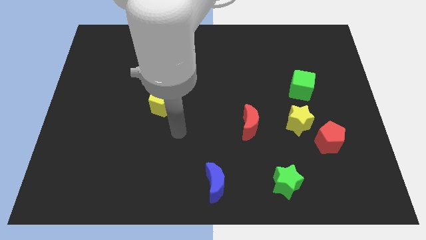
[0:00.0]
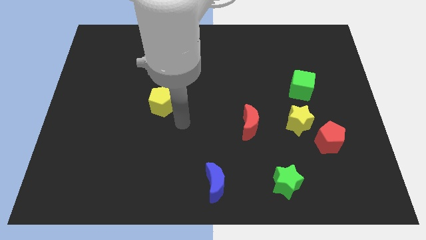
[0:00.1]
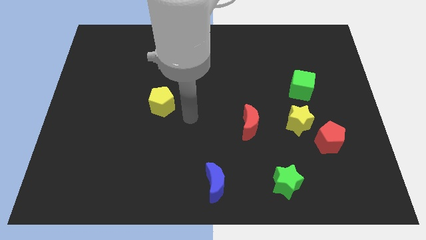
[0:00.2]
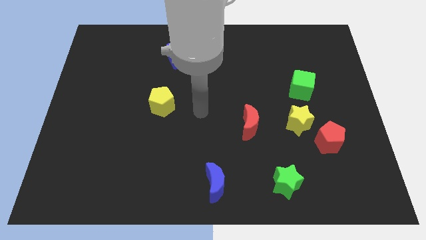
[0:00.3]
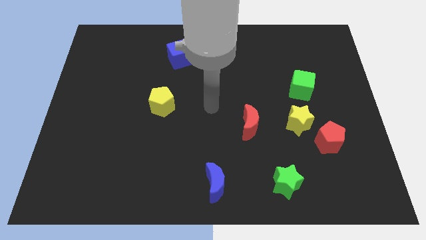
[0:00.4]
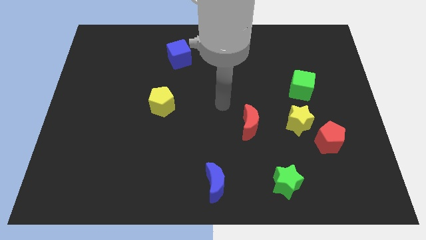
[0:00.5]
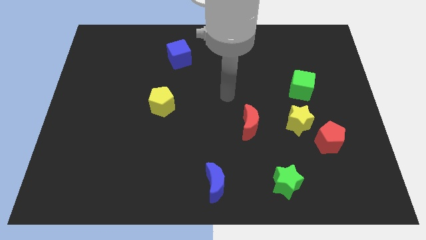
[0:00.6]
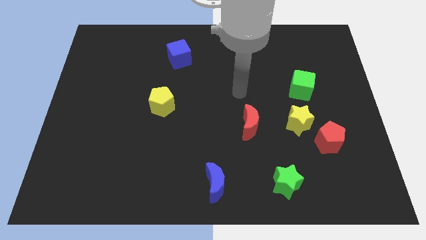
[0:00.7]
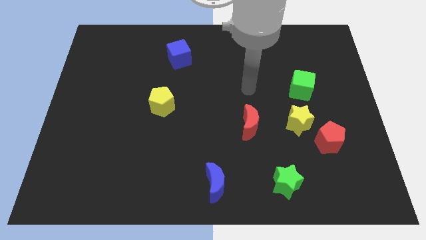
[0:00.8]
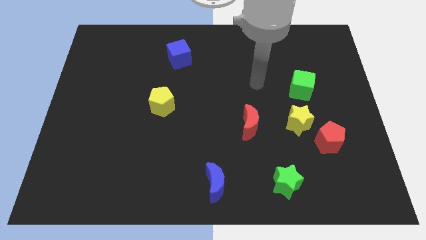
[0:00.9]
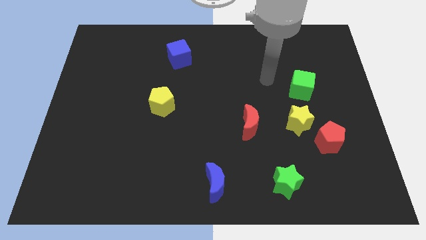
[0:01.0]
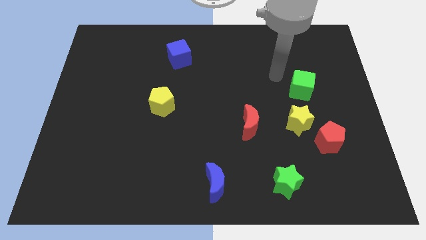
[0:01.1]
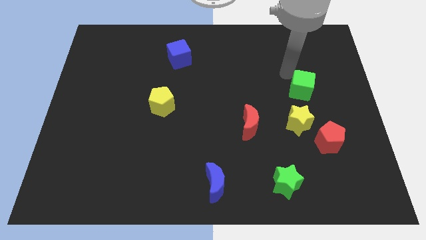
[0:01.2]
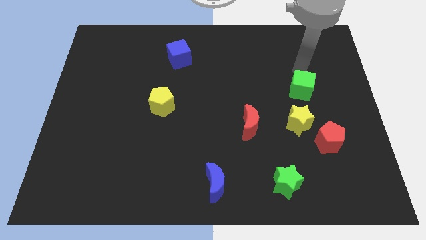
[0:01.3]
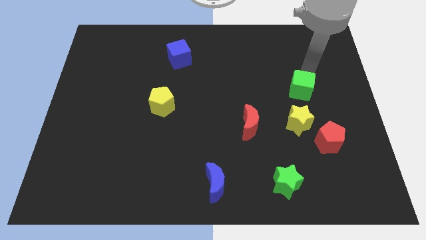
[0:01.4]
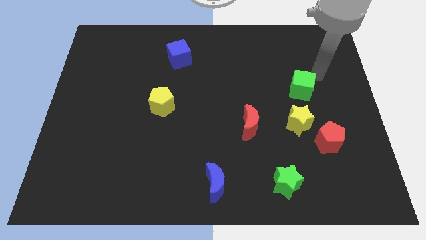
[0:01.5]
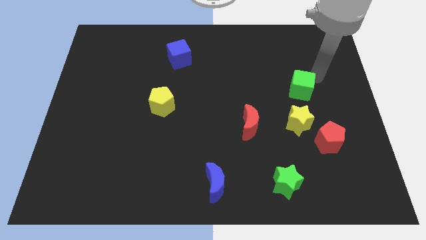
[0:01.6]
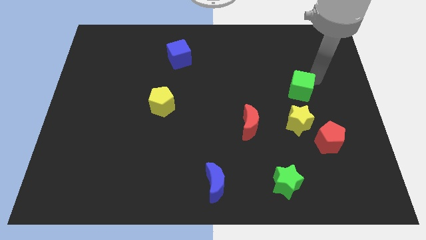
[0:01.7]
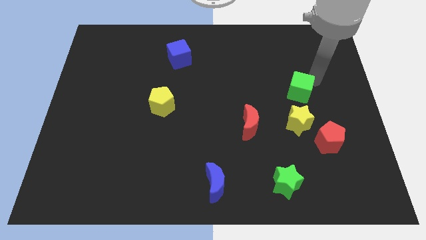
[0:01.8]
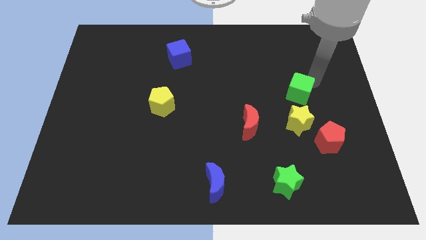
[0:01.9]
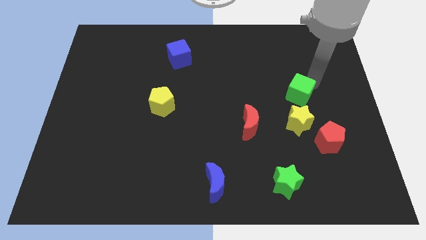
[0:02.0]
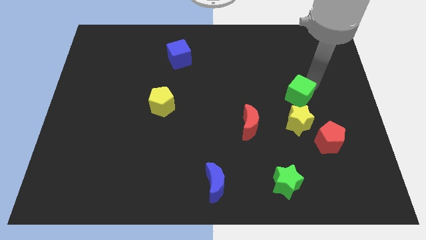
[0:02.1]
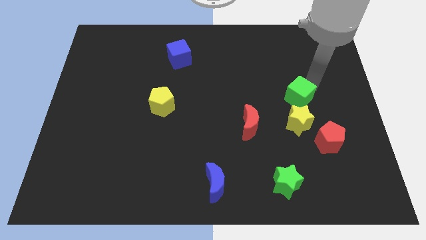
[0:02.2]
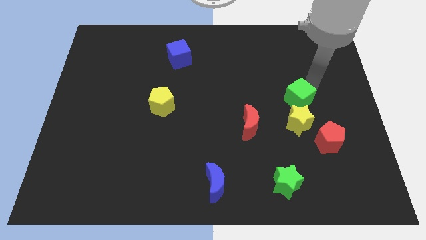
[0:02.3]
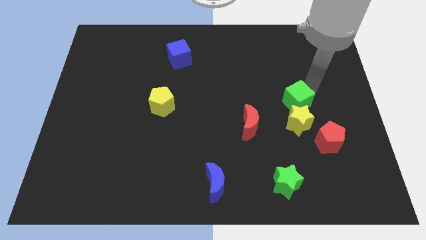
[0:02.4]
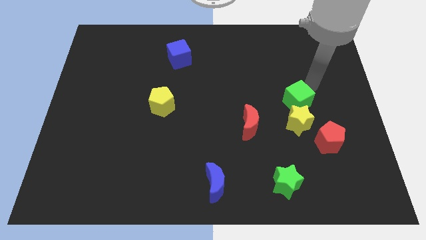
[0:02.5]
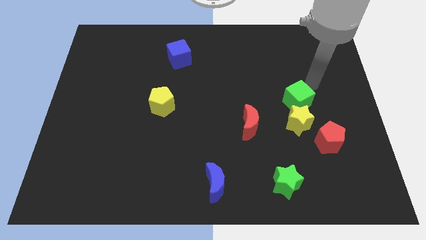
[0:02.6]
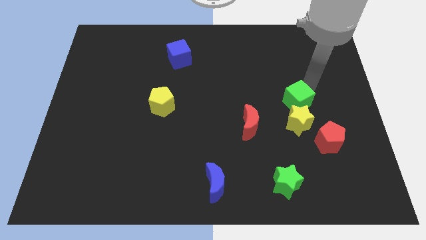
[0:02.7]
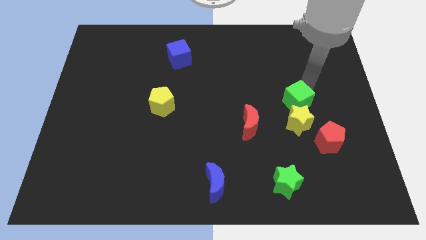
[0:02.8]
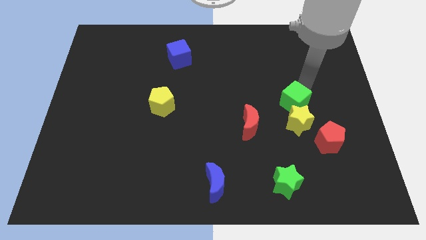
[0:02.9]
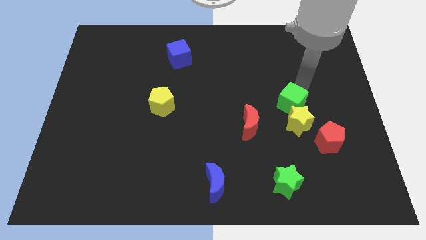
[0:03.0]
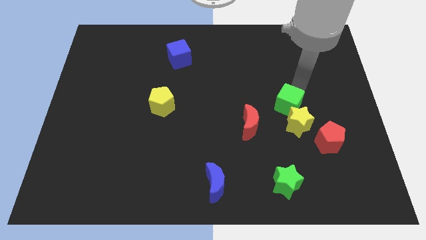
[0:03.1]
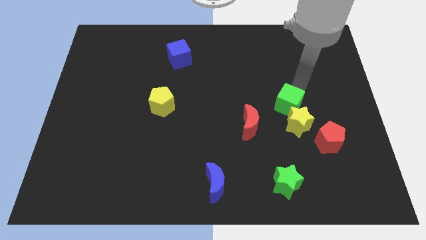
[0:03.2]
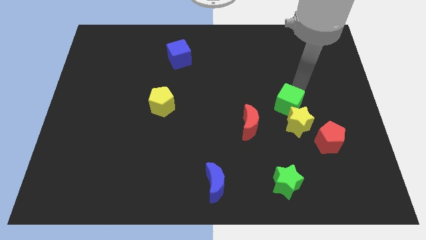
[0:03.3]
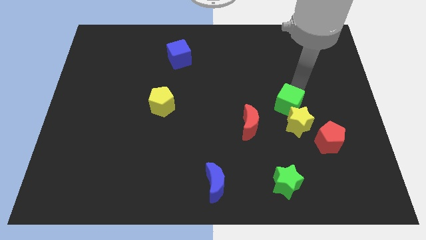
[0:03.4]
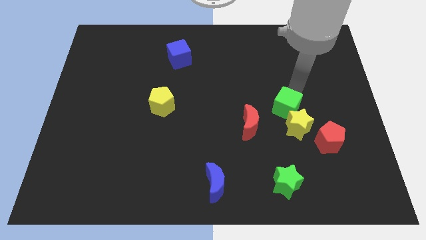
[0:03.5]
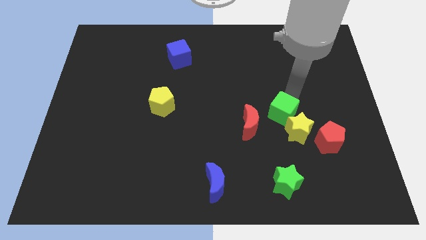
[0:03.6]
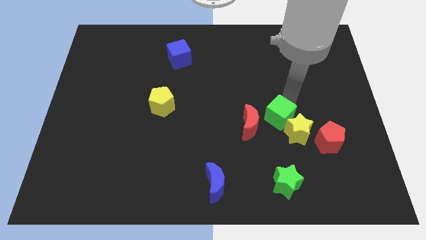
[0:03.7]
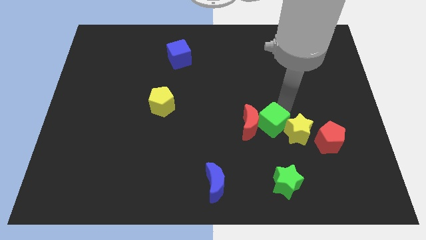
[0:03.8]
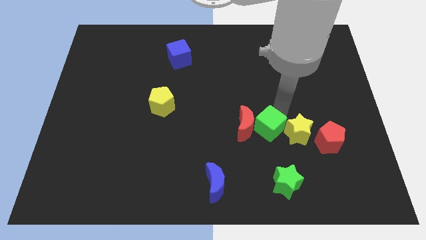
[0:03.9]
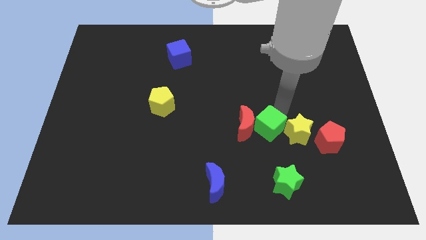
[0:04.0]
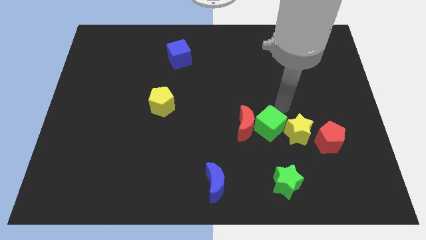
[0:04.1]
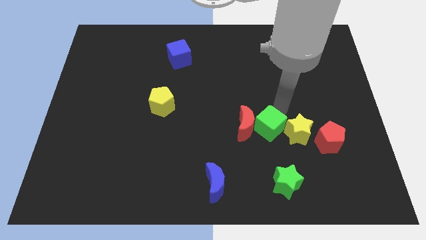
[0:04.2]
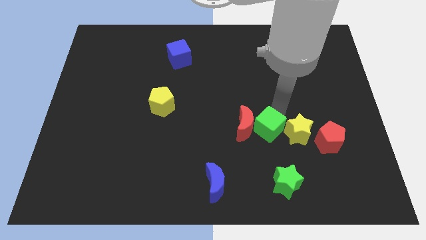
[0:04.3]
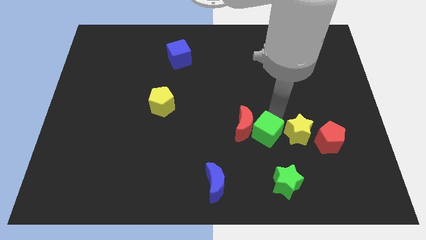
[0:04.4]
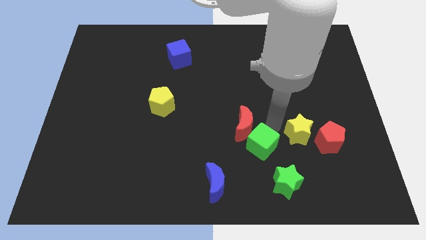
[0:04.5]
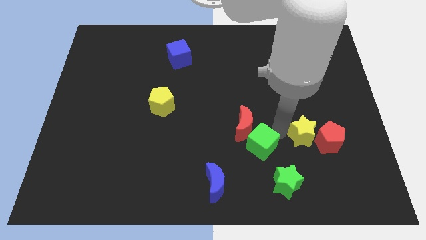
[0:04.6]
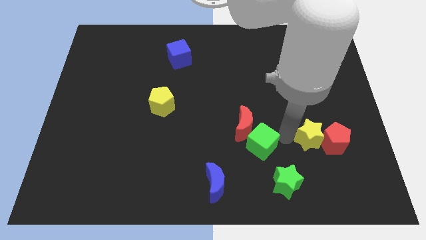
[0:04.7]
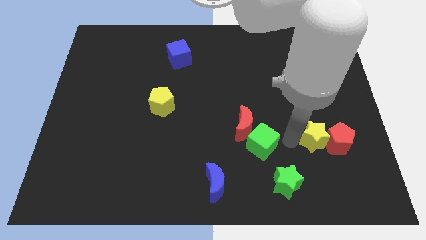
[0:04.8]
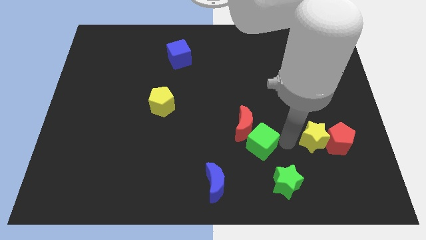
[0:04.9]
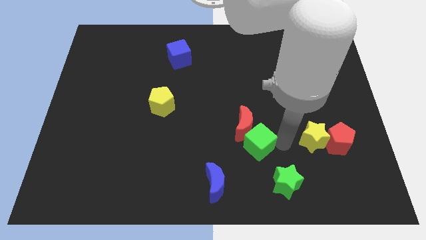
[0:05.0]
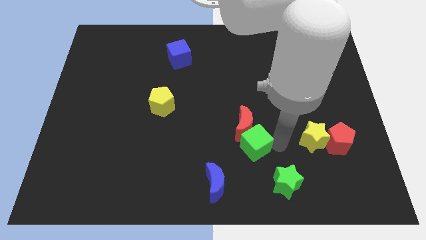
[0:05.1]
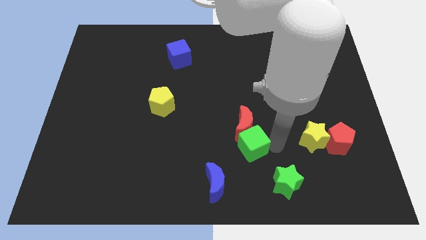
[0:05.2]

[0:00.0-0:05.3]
slide the green cube to the bottom left side of the red moon

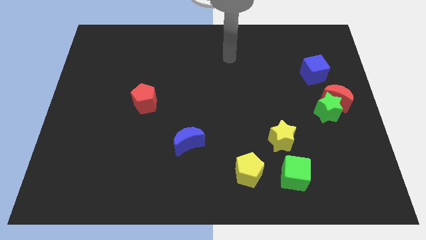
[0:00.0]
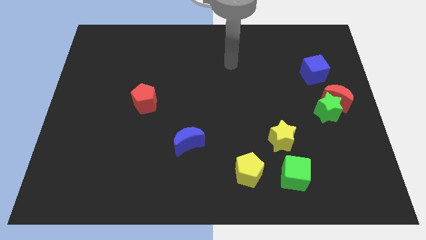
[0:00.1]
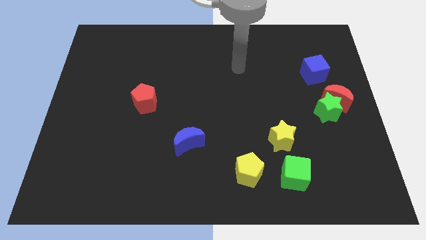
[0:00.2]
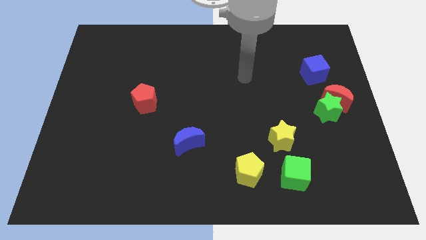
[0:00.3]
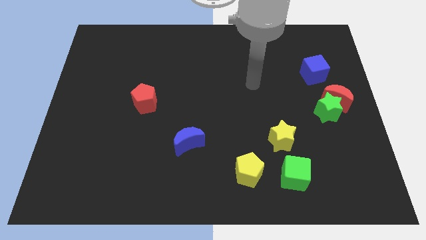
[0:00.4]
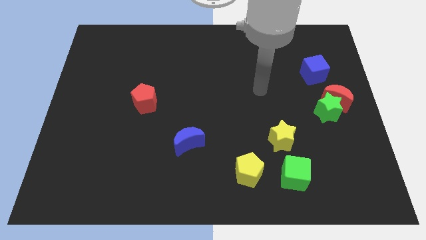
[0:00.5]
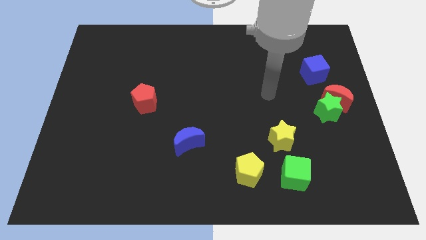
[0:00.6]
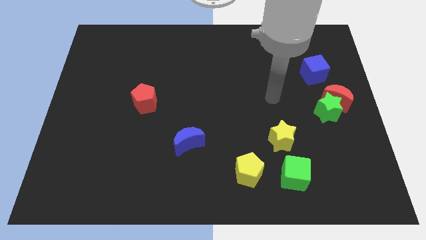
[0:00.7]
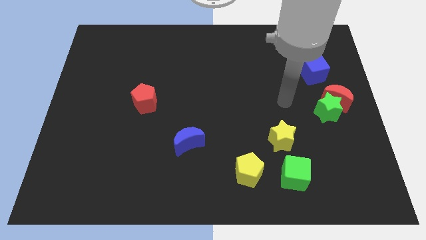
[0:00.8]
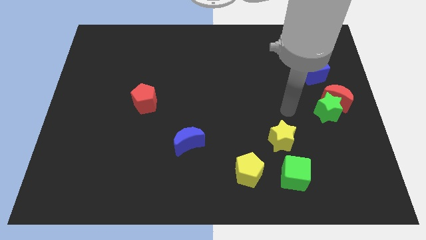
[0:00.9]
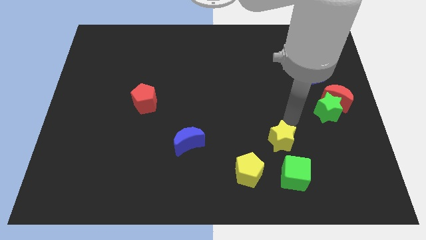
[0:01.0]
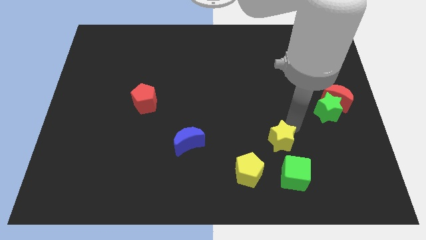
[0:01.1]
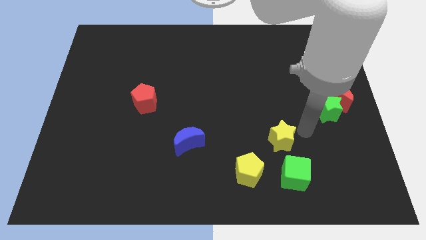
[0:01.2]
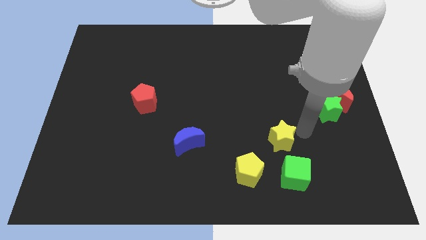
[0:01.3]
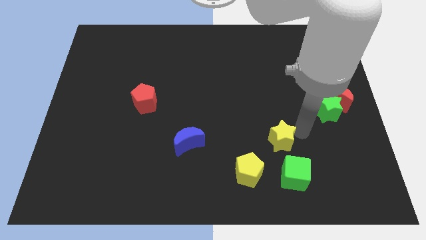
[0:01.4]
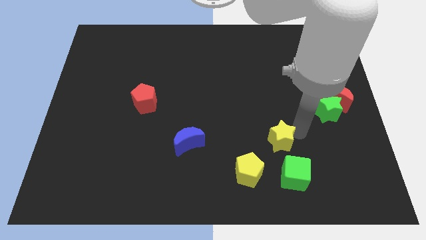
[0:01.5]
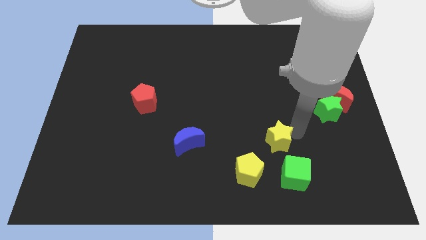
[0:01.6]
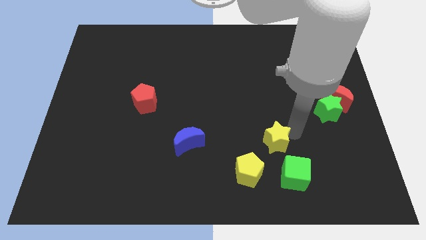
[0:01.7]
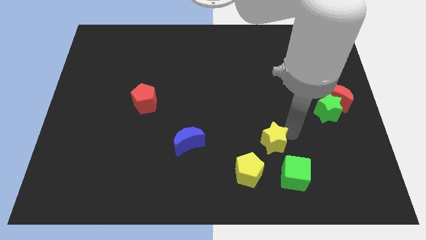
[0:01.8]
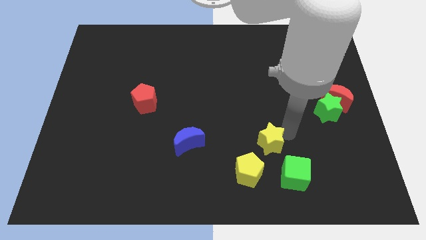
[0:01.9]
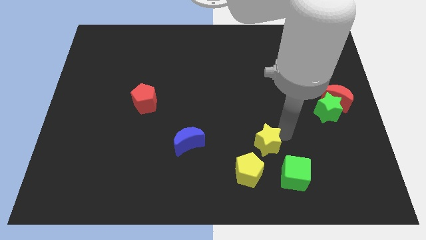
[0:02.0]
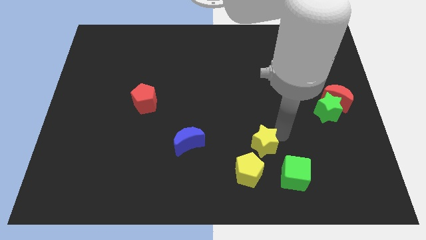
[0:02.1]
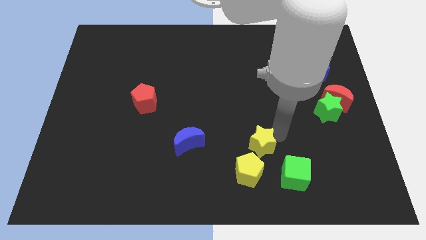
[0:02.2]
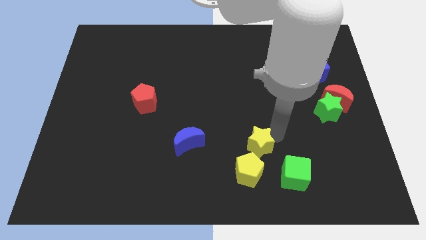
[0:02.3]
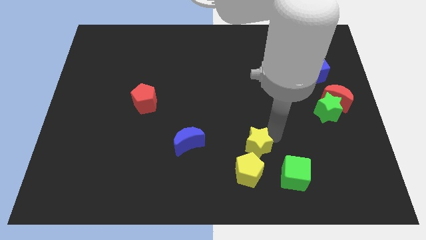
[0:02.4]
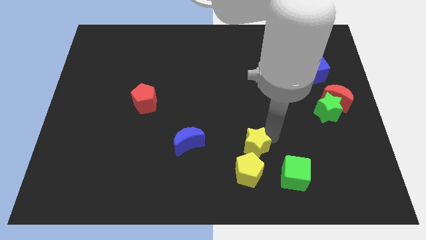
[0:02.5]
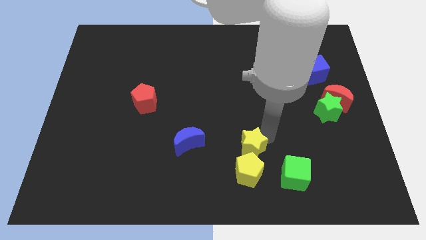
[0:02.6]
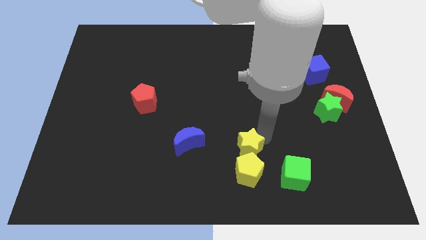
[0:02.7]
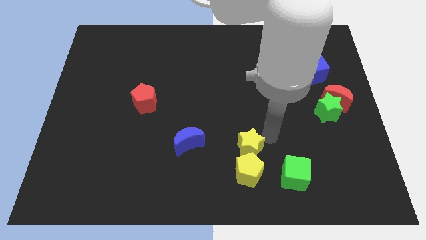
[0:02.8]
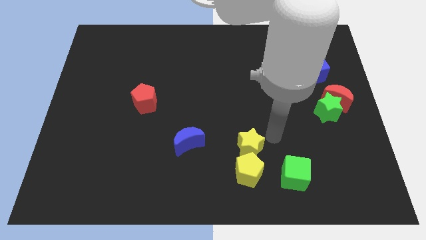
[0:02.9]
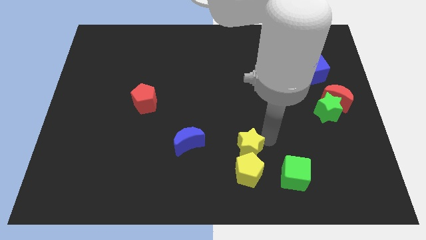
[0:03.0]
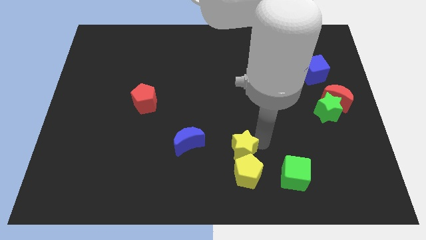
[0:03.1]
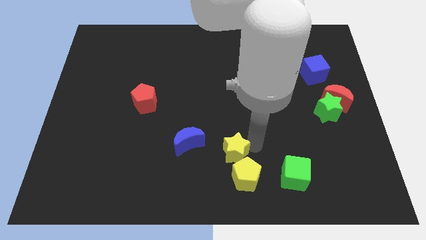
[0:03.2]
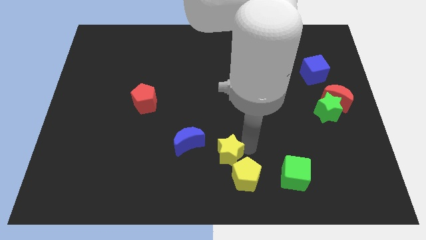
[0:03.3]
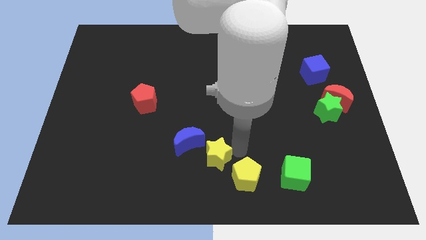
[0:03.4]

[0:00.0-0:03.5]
push the yellow star left of the yellow pentagon
